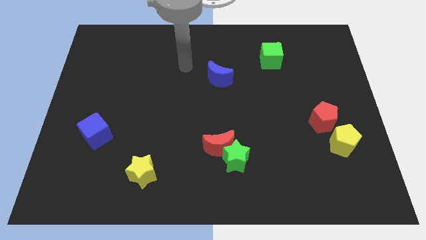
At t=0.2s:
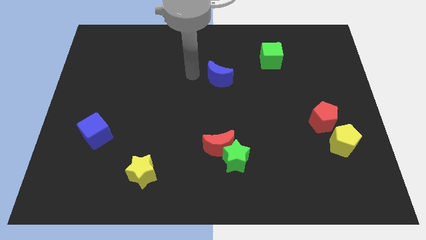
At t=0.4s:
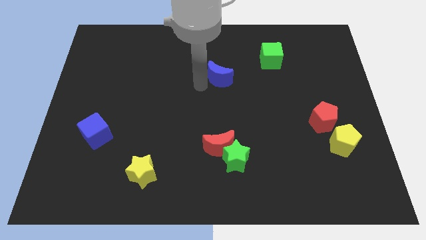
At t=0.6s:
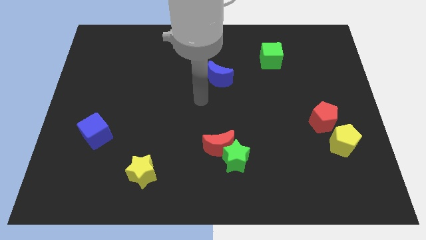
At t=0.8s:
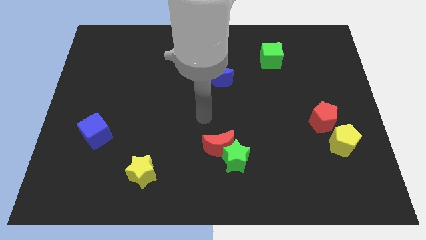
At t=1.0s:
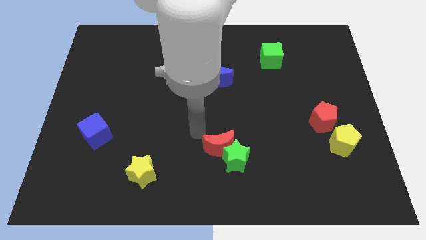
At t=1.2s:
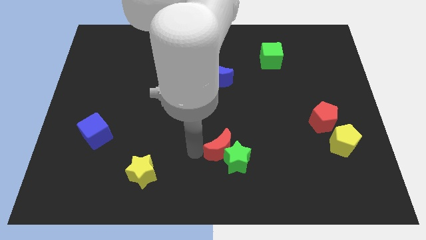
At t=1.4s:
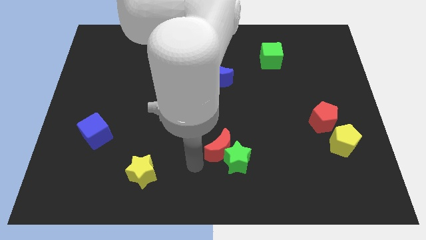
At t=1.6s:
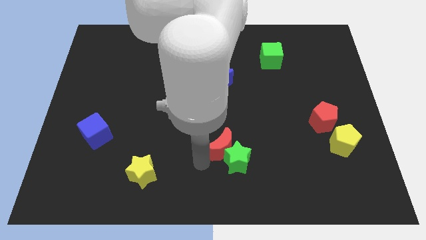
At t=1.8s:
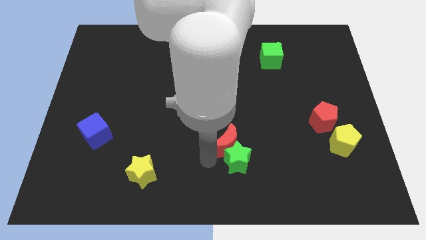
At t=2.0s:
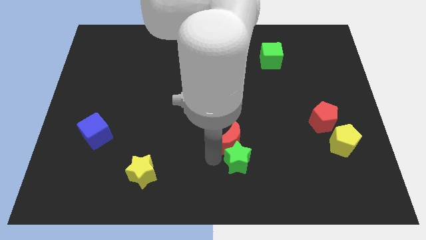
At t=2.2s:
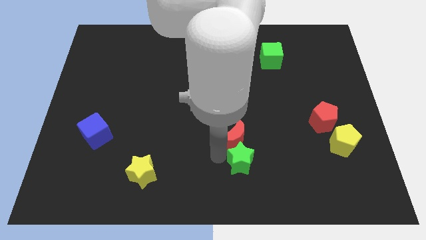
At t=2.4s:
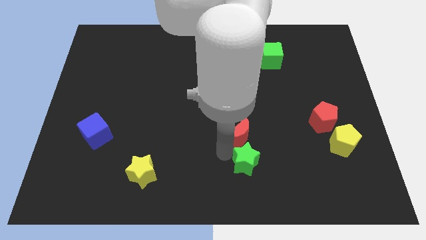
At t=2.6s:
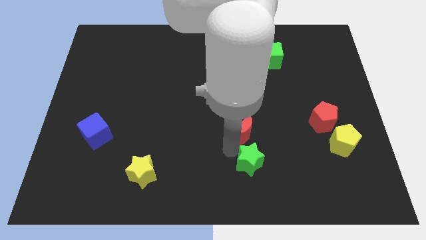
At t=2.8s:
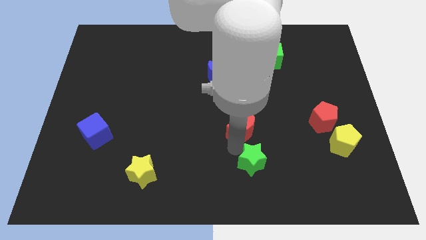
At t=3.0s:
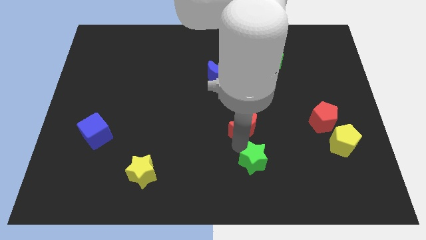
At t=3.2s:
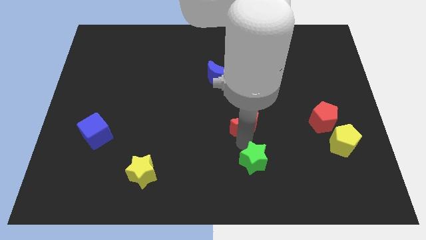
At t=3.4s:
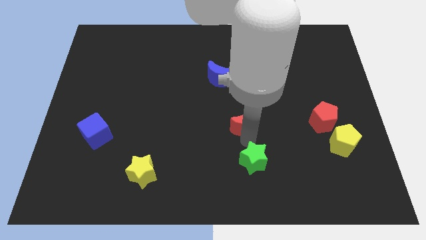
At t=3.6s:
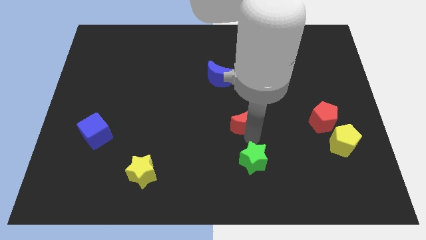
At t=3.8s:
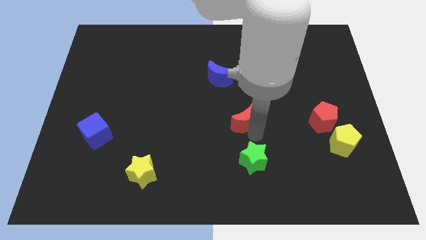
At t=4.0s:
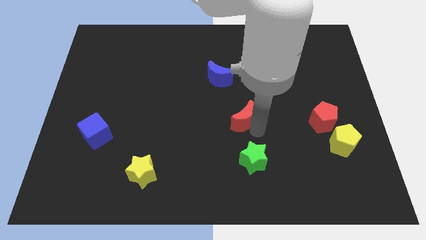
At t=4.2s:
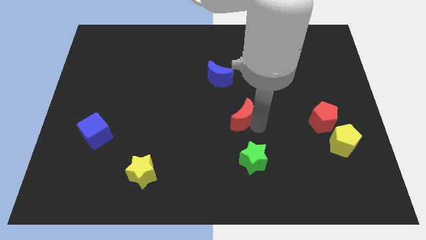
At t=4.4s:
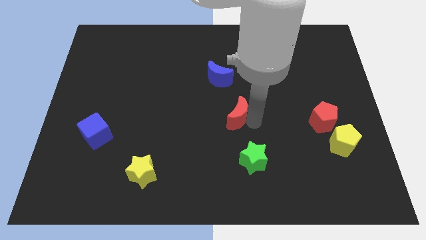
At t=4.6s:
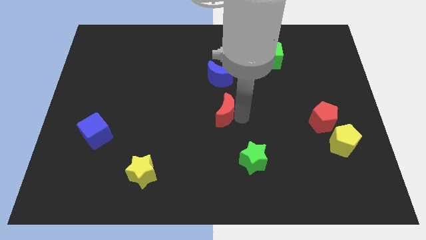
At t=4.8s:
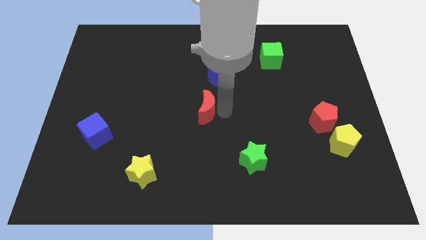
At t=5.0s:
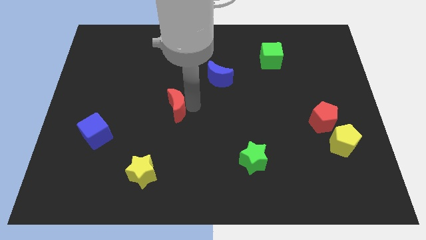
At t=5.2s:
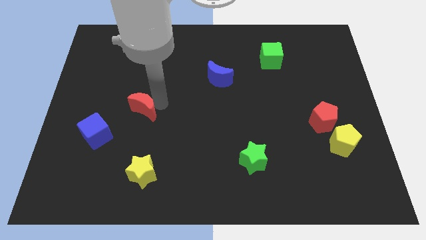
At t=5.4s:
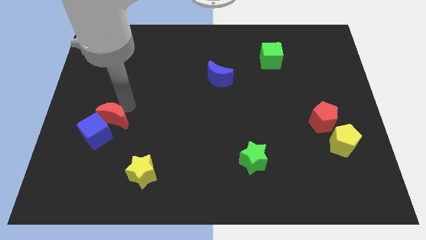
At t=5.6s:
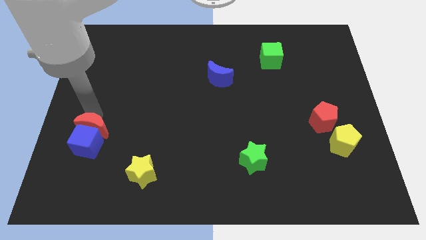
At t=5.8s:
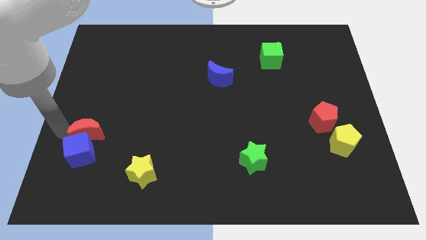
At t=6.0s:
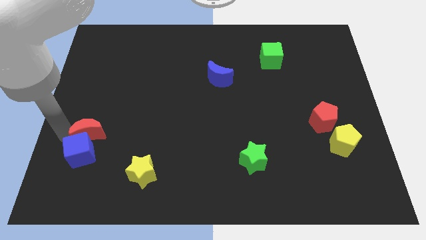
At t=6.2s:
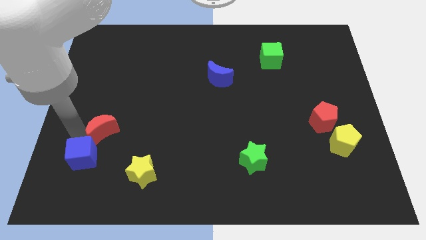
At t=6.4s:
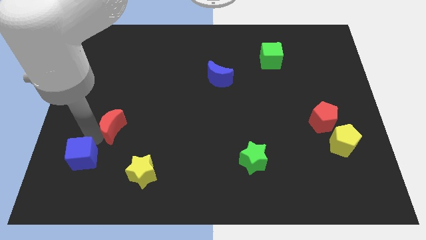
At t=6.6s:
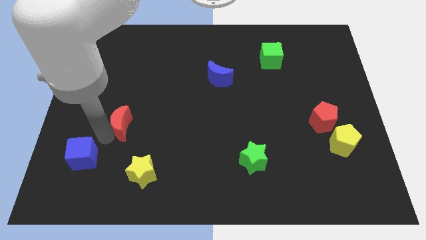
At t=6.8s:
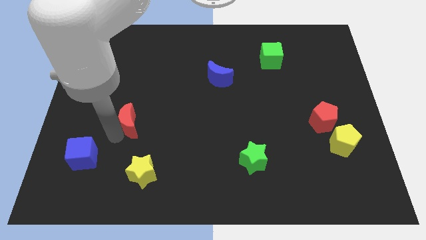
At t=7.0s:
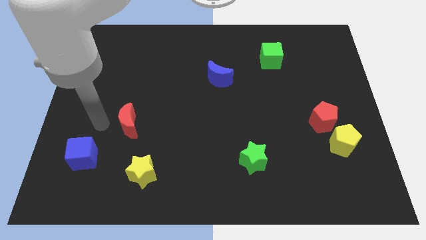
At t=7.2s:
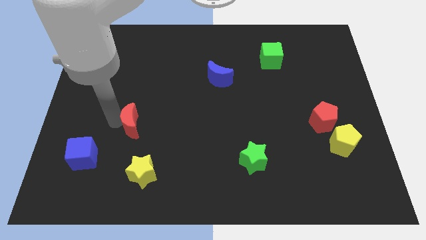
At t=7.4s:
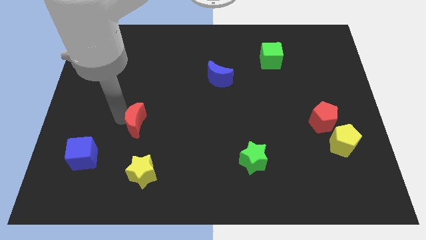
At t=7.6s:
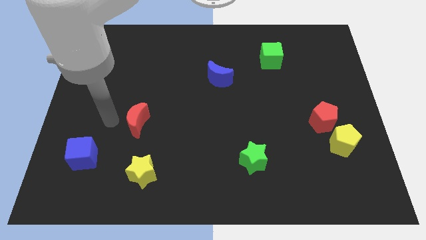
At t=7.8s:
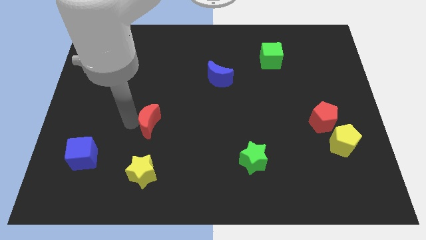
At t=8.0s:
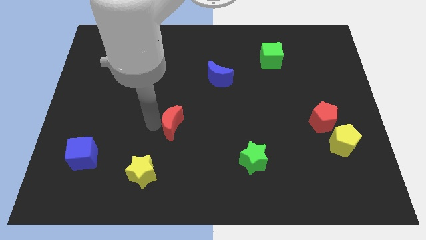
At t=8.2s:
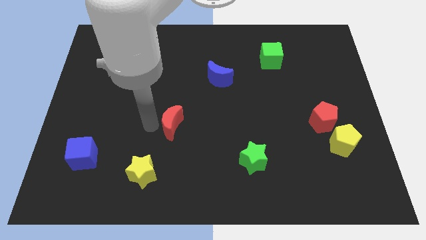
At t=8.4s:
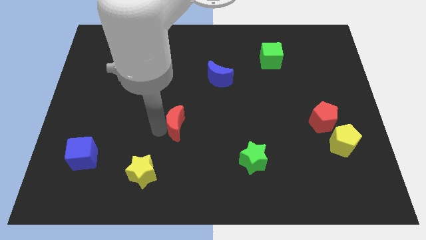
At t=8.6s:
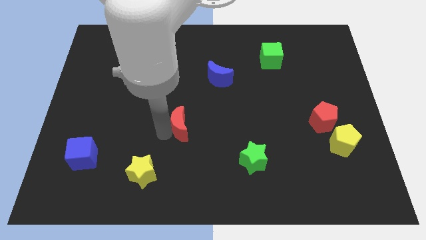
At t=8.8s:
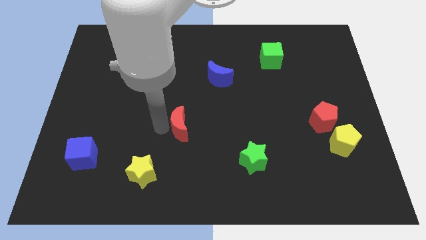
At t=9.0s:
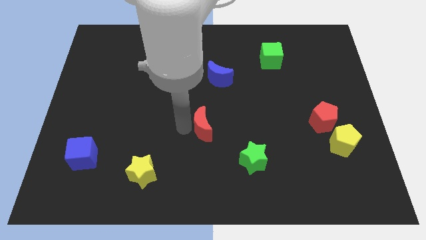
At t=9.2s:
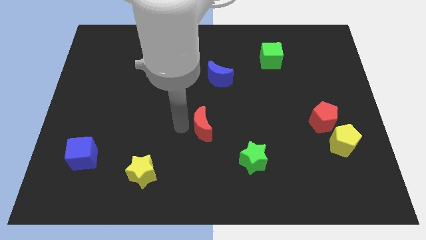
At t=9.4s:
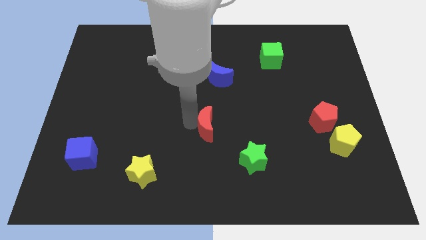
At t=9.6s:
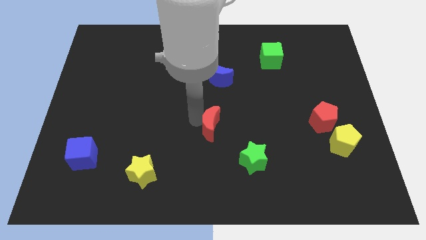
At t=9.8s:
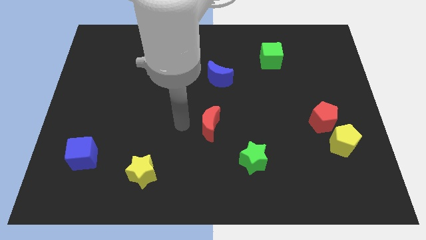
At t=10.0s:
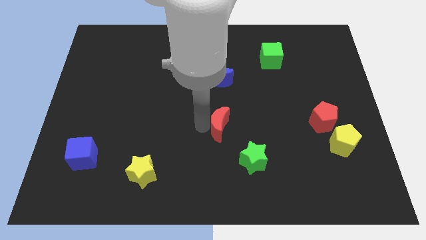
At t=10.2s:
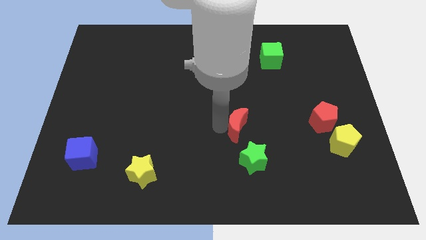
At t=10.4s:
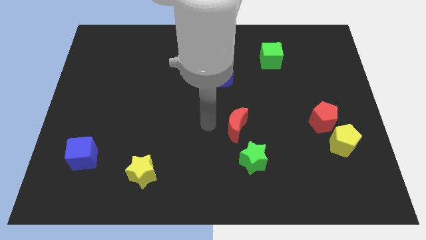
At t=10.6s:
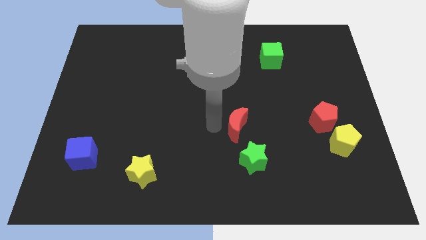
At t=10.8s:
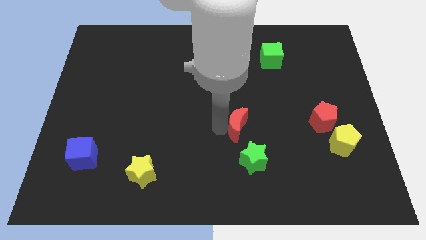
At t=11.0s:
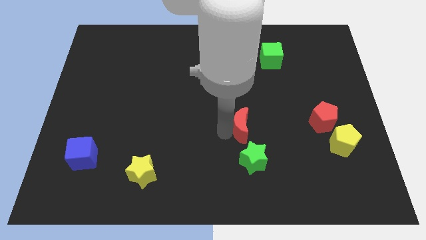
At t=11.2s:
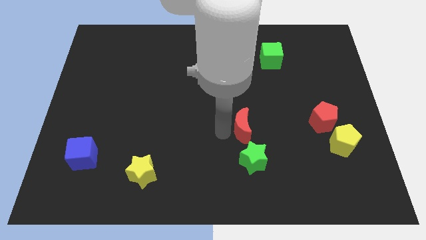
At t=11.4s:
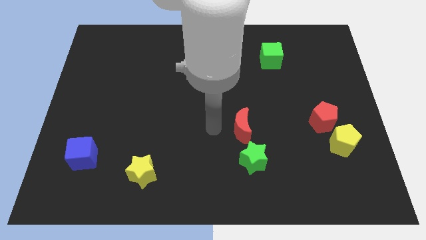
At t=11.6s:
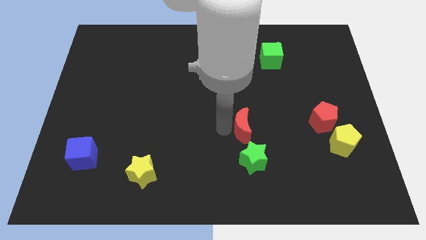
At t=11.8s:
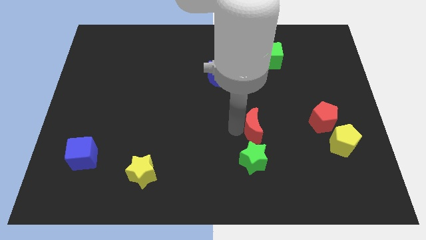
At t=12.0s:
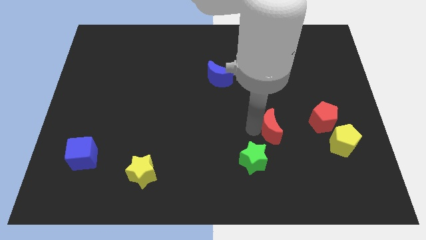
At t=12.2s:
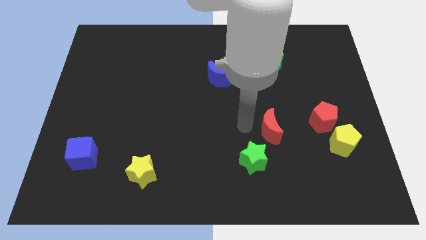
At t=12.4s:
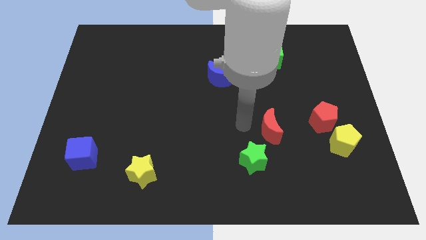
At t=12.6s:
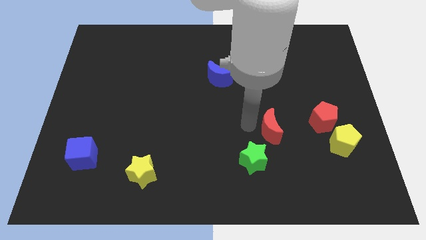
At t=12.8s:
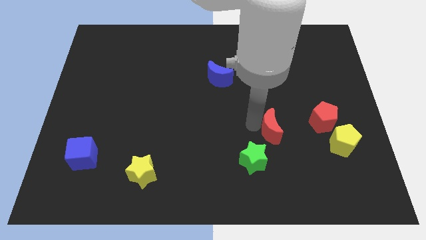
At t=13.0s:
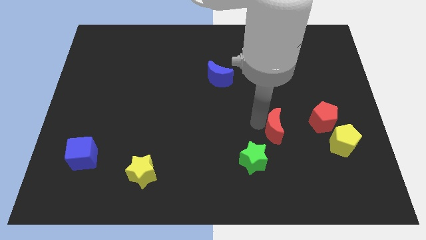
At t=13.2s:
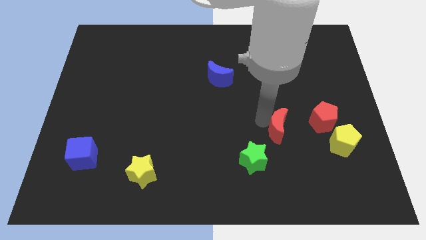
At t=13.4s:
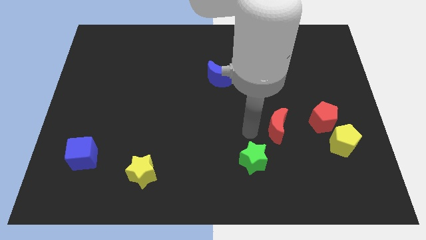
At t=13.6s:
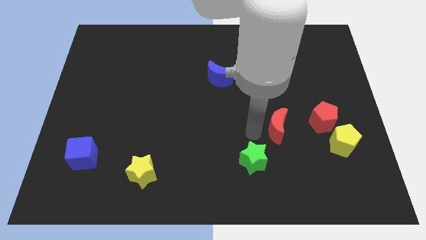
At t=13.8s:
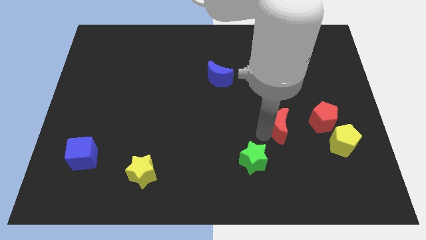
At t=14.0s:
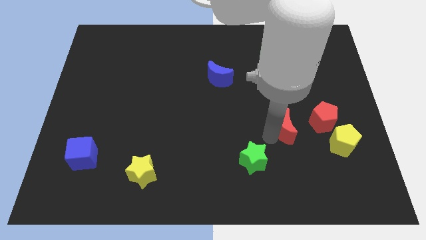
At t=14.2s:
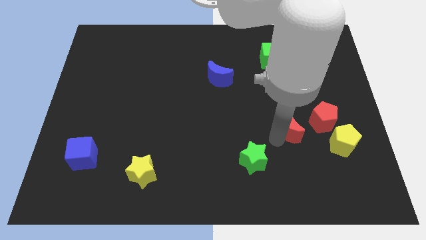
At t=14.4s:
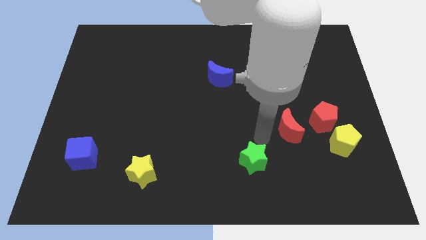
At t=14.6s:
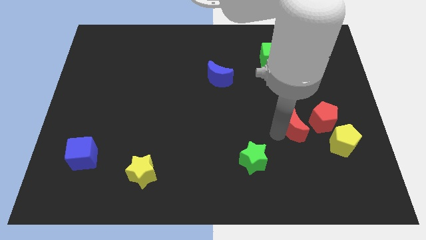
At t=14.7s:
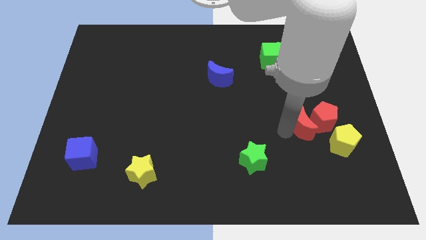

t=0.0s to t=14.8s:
push the red moon next to the red pentagon
